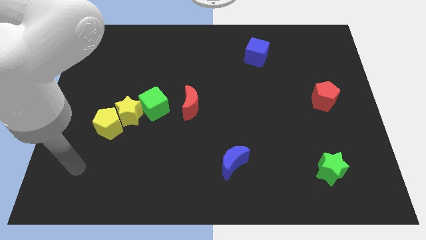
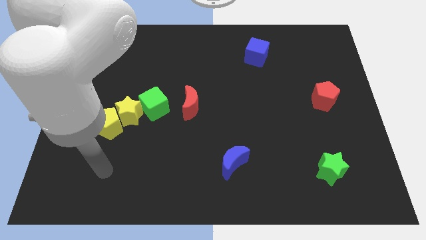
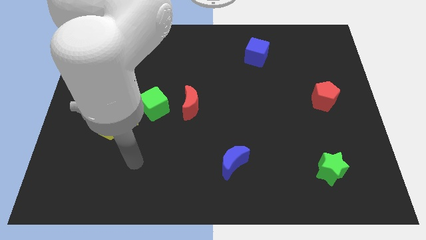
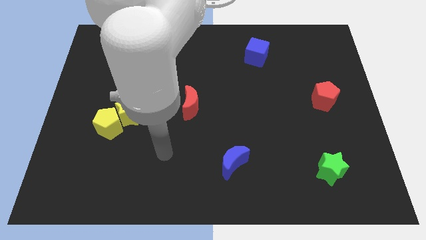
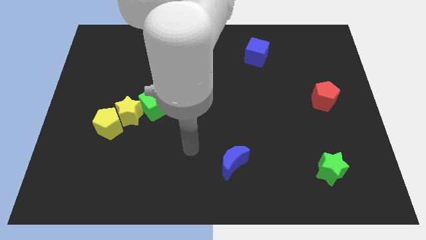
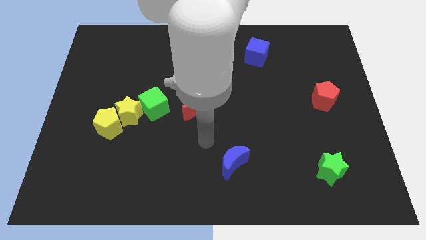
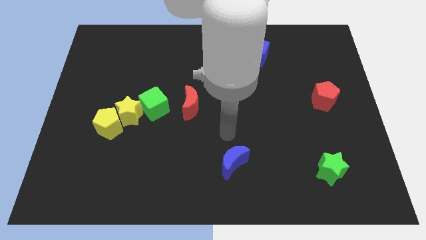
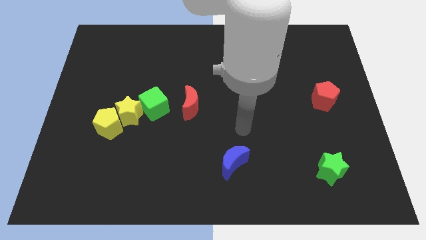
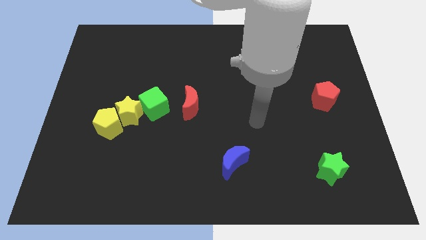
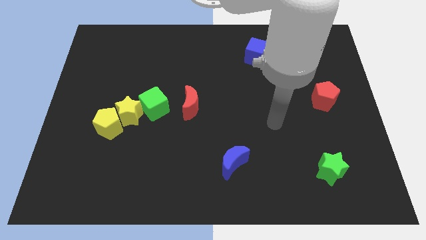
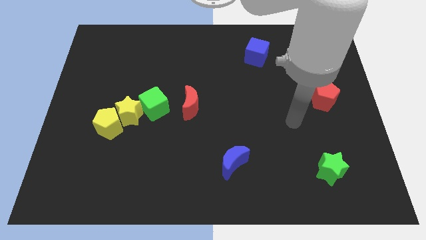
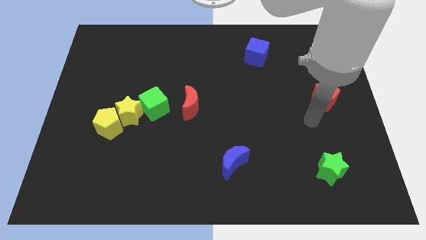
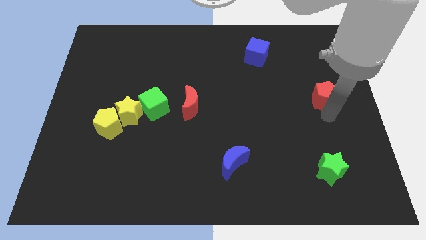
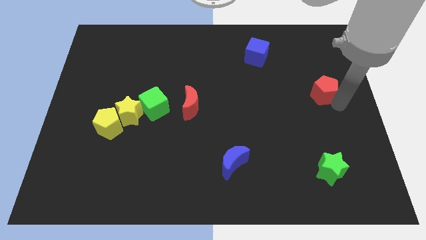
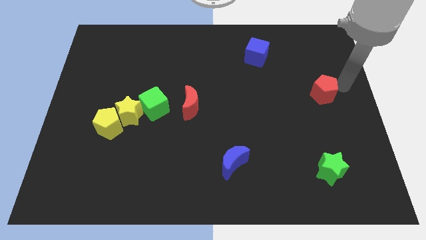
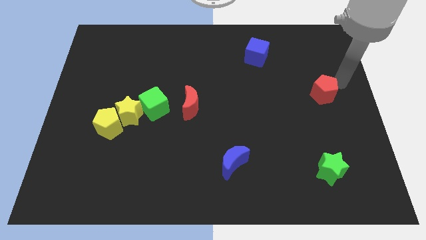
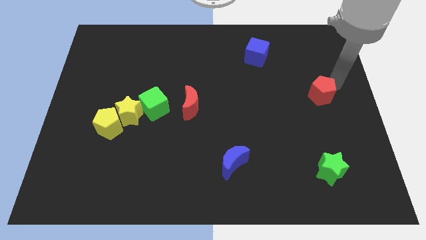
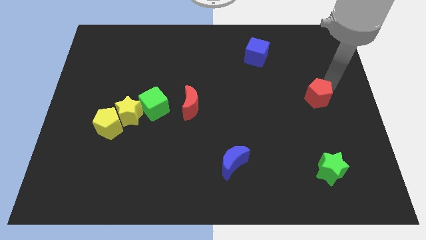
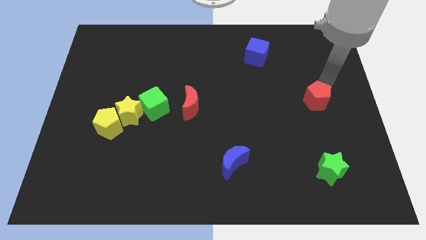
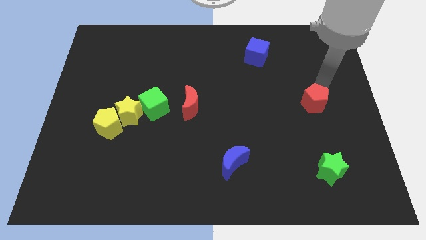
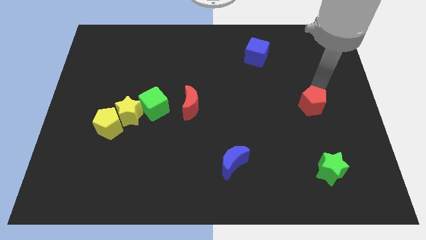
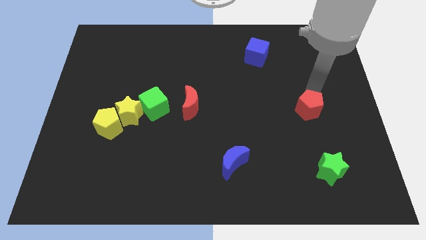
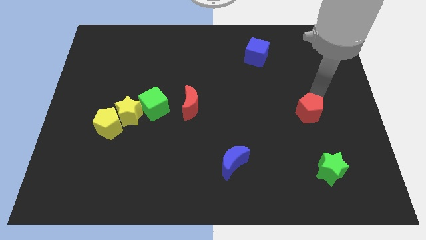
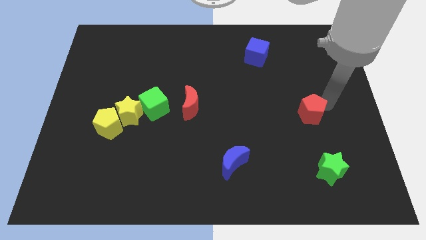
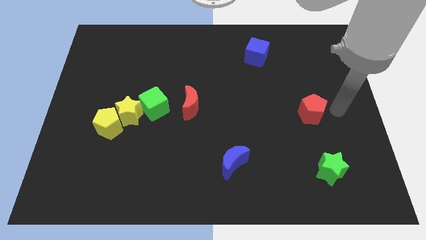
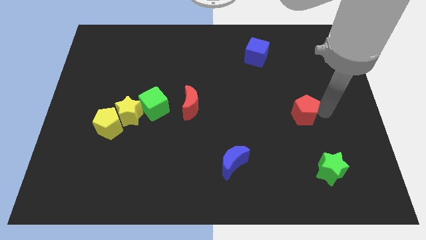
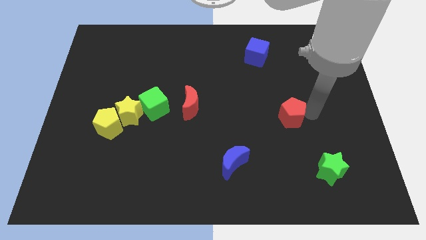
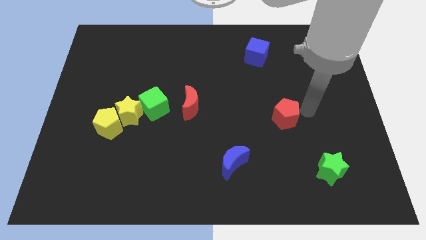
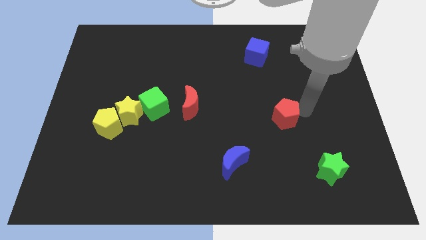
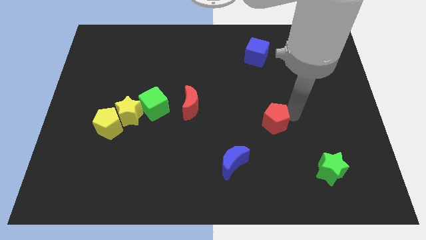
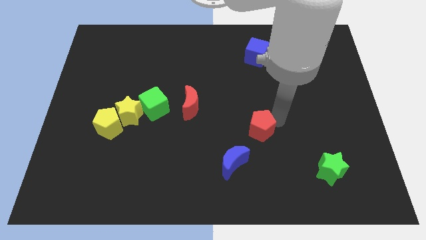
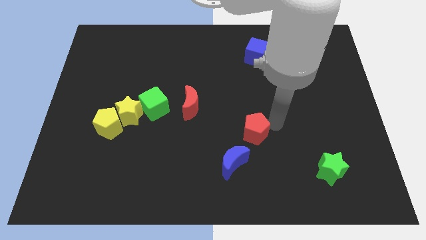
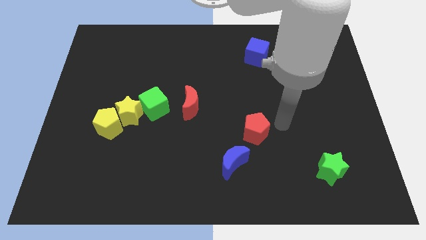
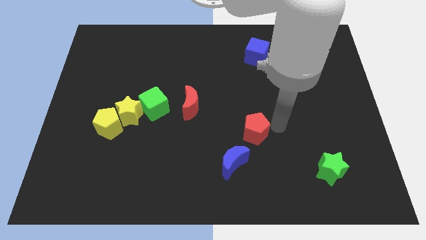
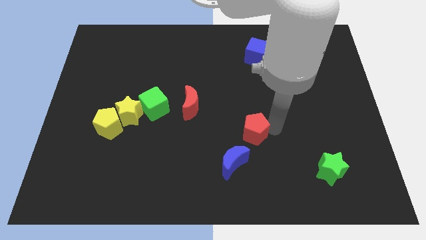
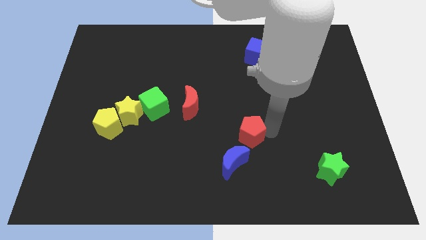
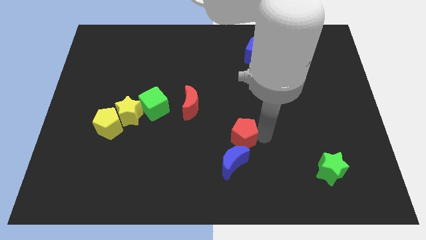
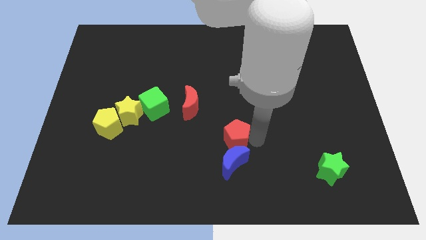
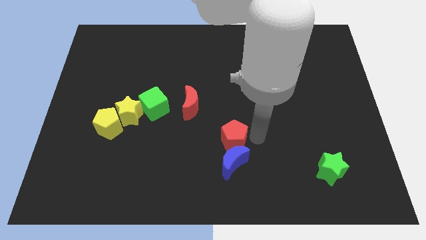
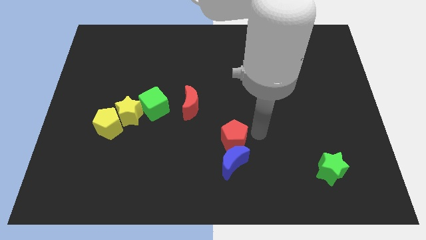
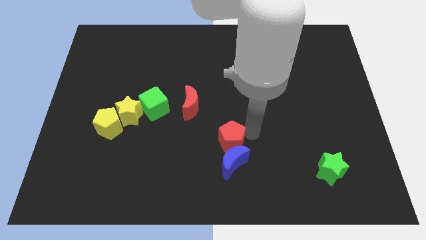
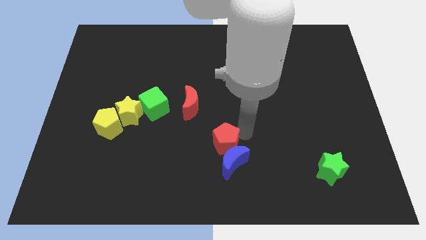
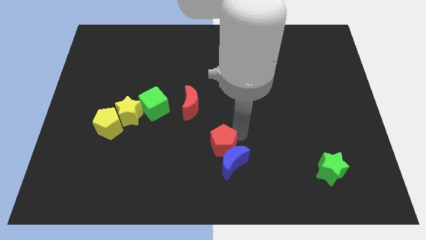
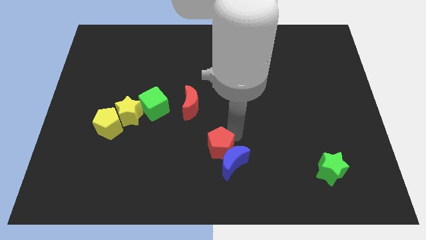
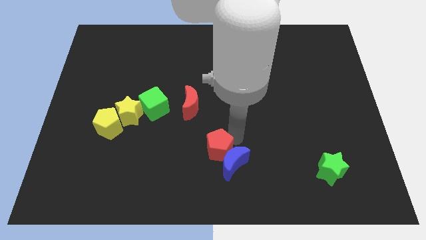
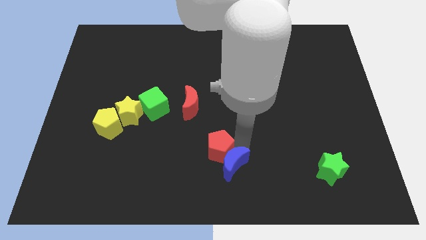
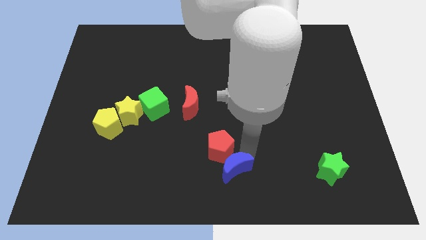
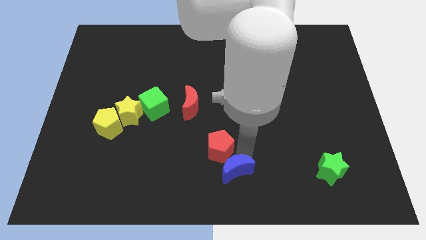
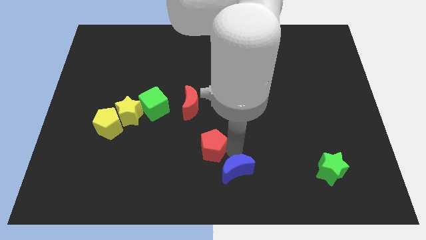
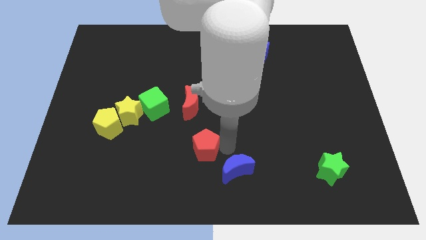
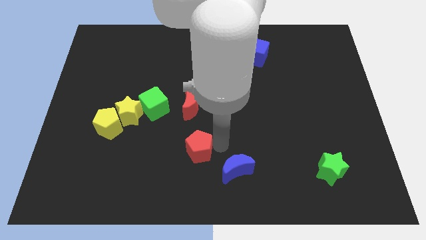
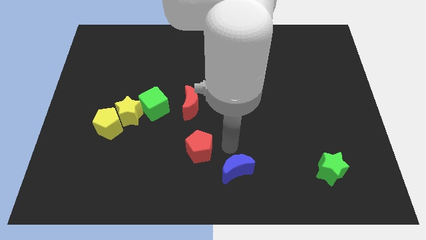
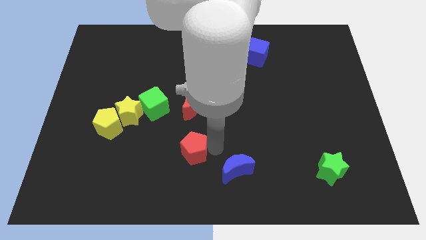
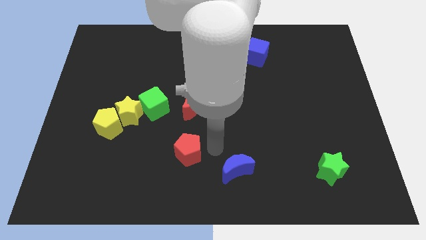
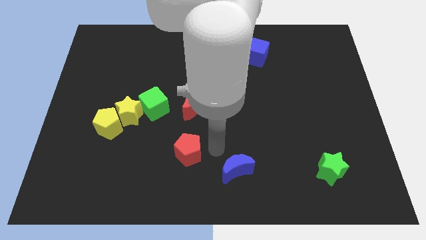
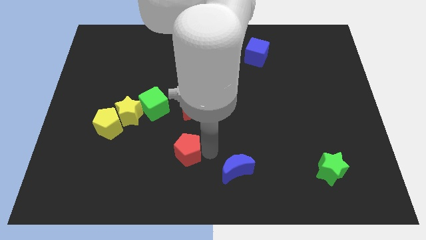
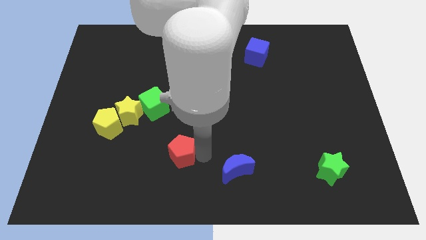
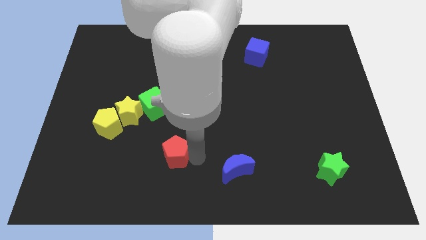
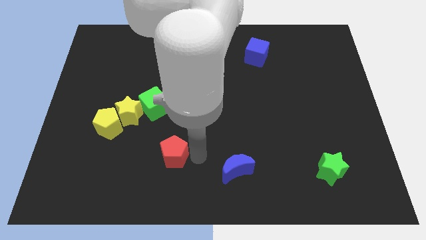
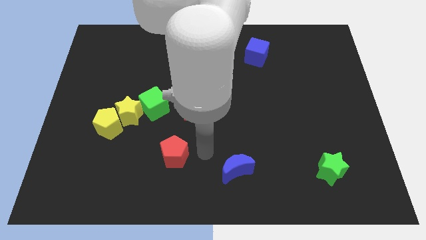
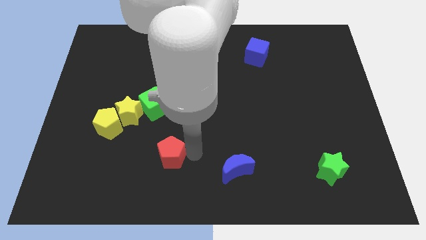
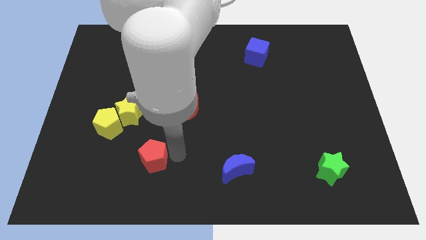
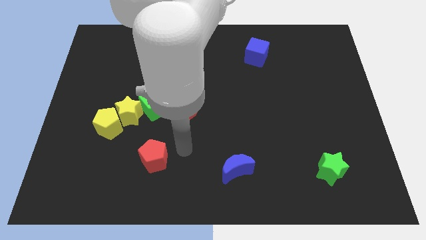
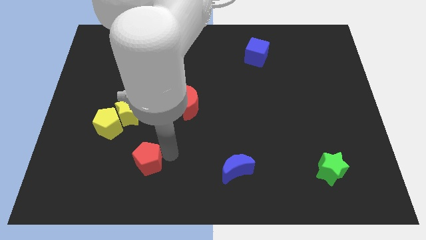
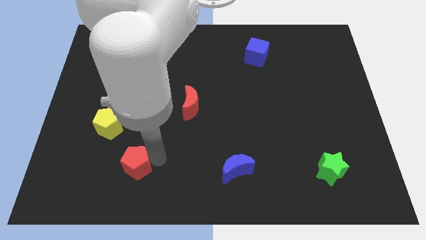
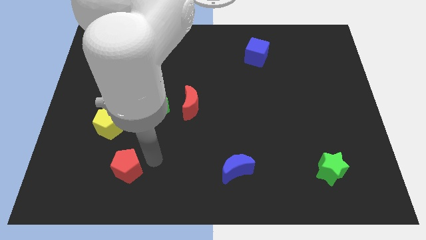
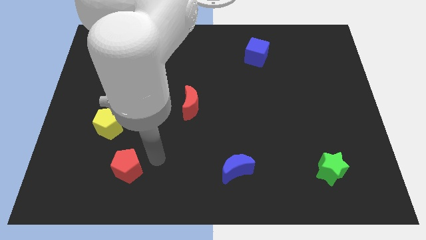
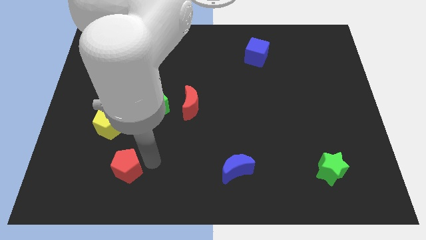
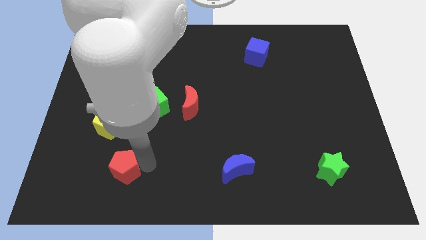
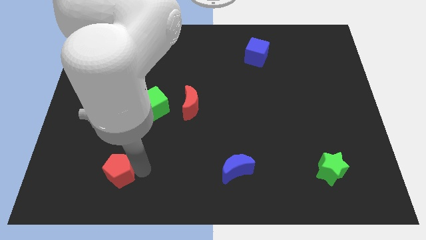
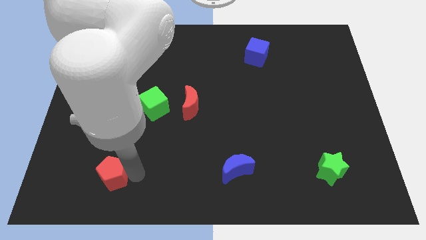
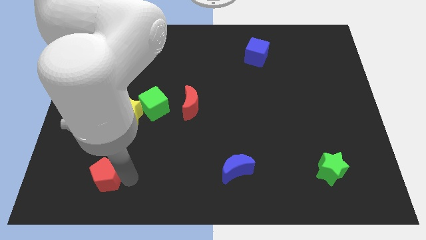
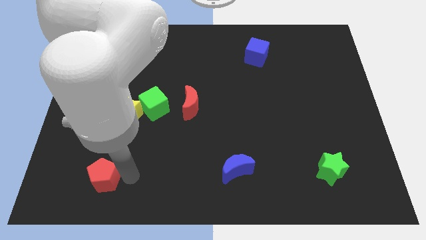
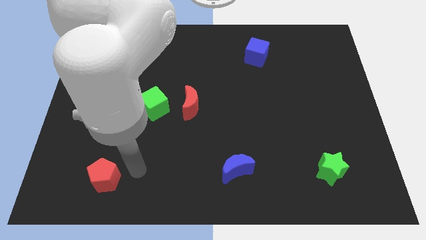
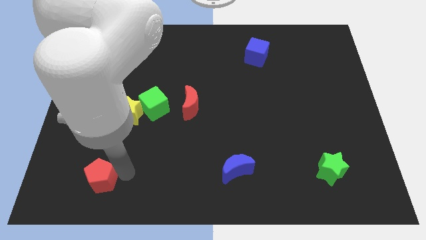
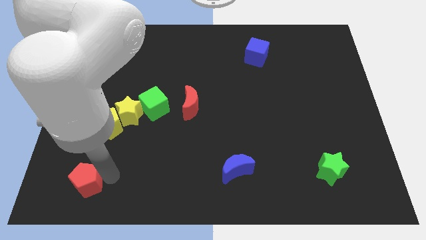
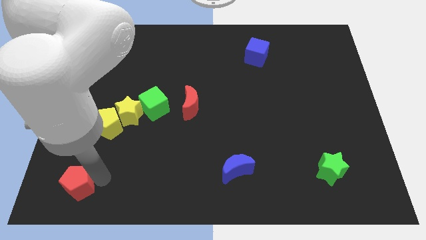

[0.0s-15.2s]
put the red pentagon to the bottom left of the board
